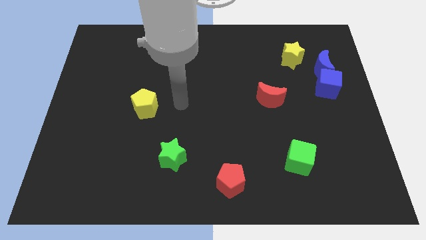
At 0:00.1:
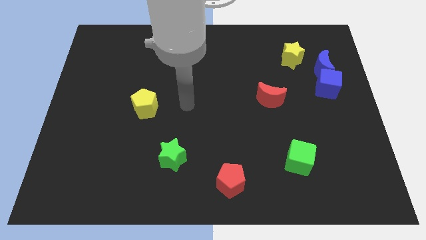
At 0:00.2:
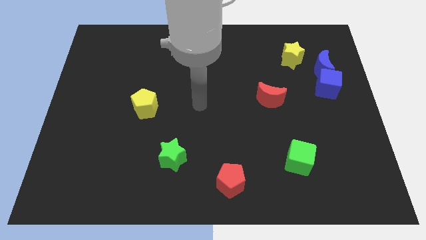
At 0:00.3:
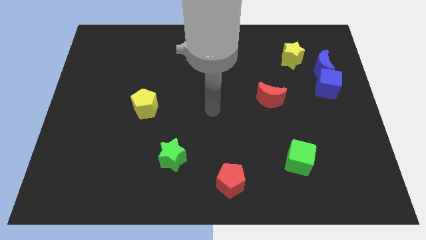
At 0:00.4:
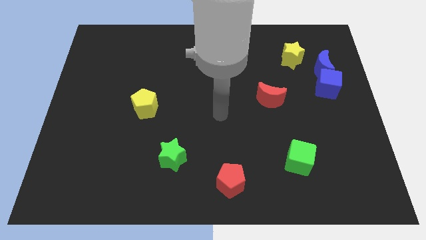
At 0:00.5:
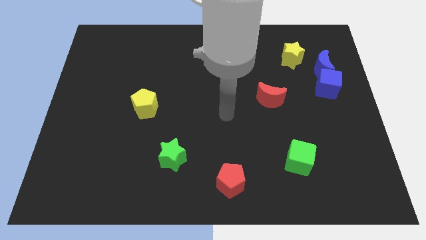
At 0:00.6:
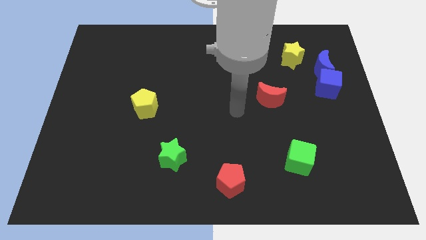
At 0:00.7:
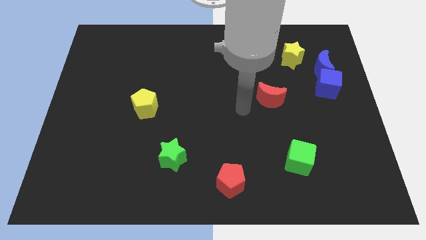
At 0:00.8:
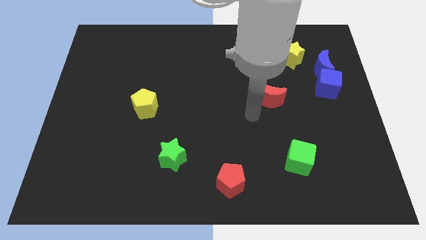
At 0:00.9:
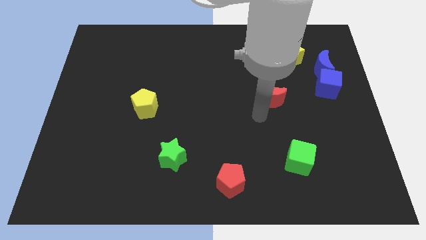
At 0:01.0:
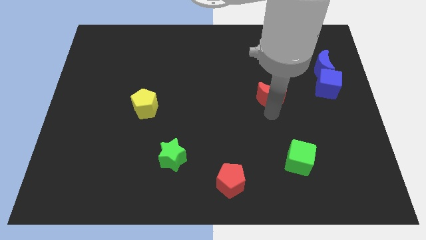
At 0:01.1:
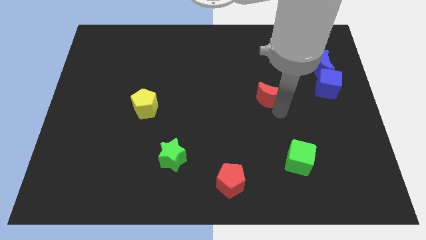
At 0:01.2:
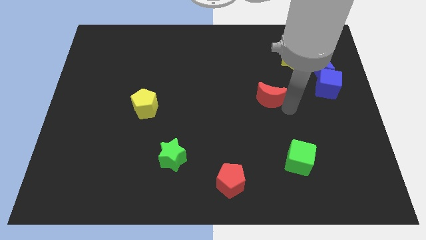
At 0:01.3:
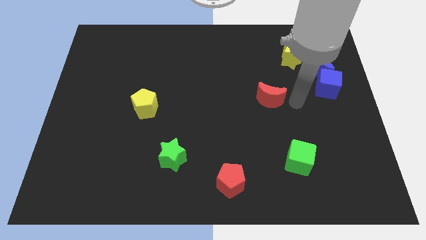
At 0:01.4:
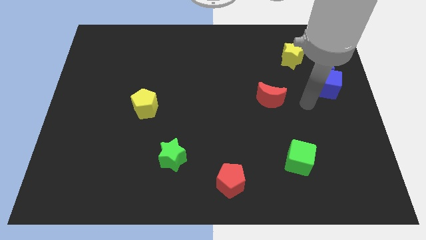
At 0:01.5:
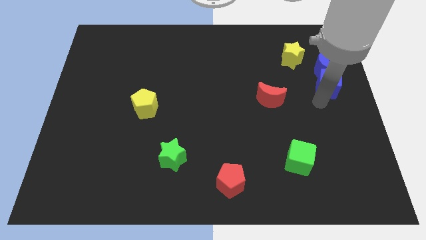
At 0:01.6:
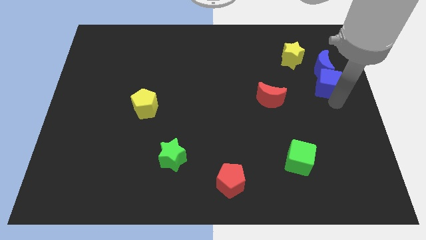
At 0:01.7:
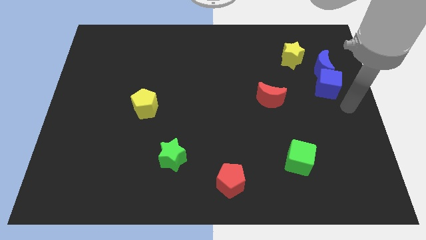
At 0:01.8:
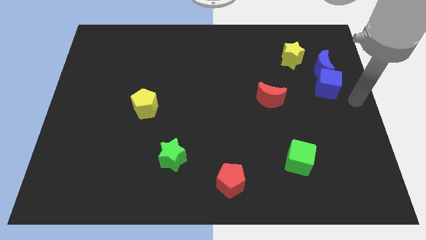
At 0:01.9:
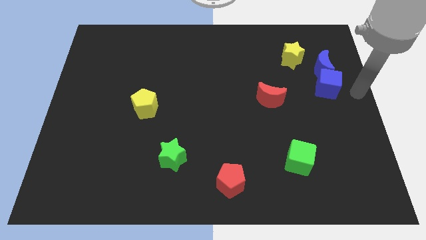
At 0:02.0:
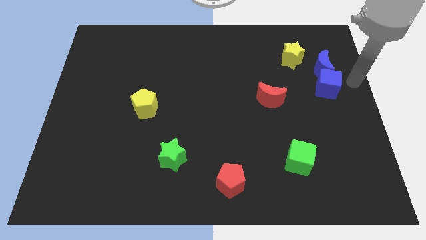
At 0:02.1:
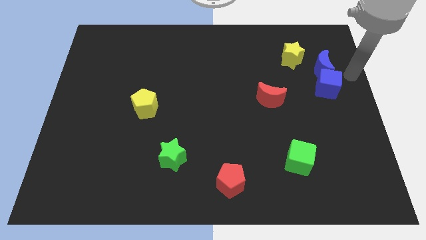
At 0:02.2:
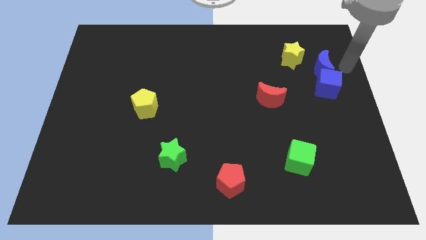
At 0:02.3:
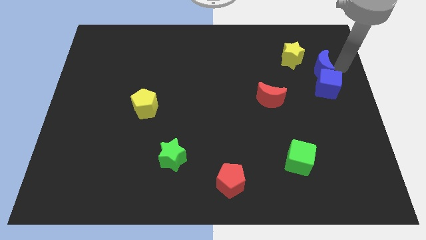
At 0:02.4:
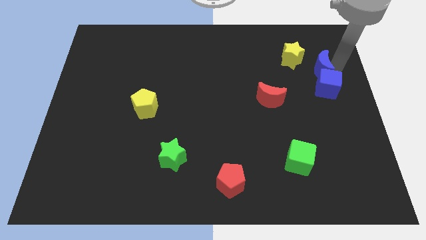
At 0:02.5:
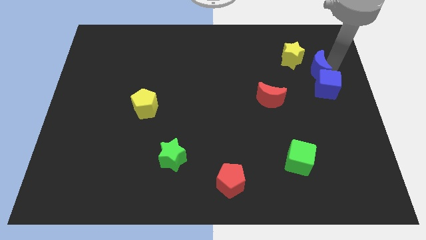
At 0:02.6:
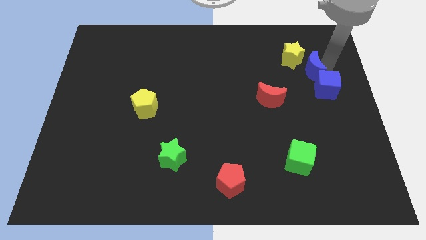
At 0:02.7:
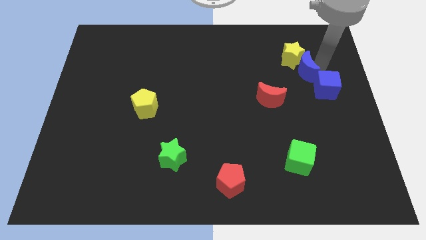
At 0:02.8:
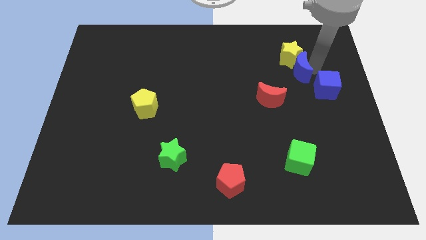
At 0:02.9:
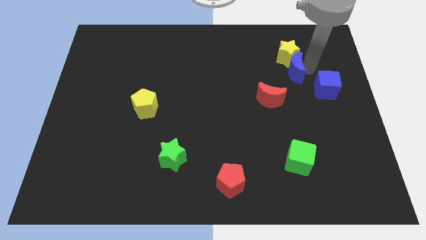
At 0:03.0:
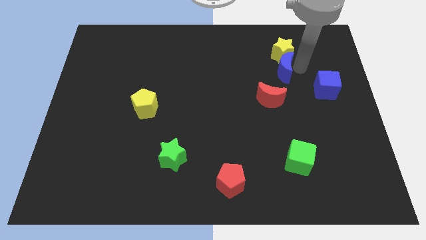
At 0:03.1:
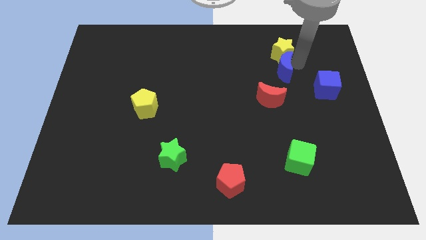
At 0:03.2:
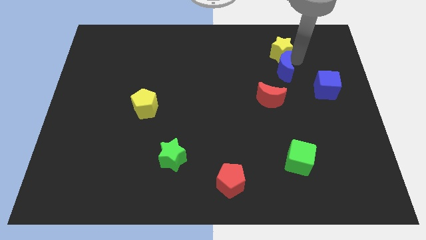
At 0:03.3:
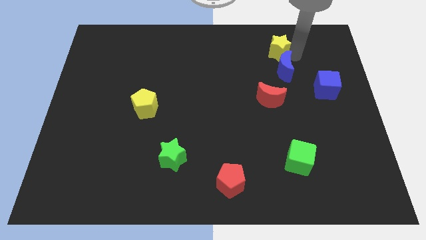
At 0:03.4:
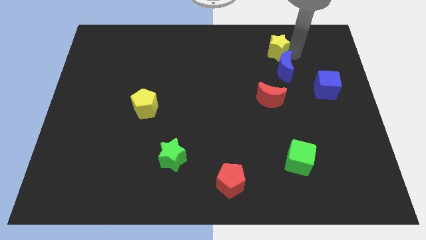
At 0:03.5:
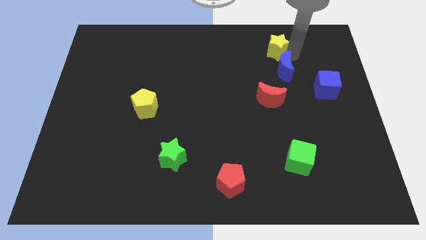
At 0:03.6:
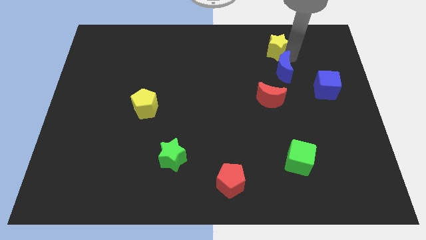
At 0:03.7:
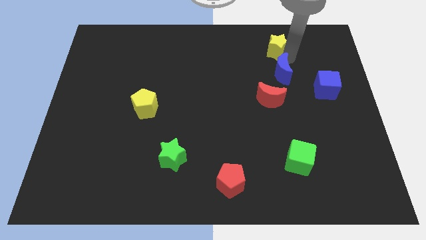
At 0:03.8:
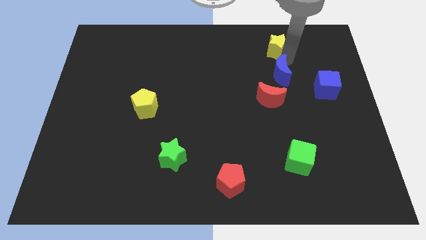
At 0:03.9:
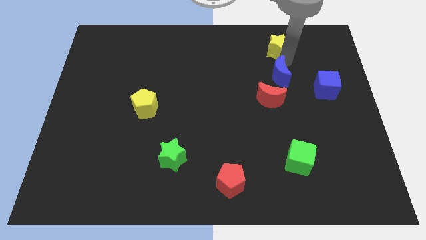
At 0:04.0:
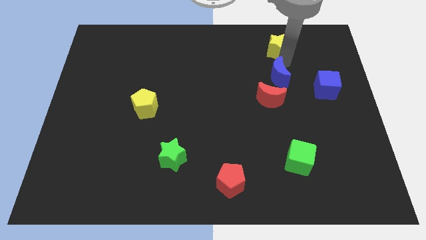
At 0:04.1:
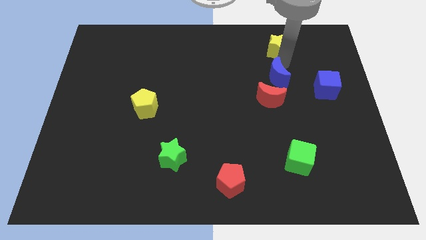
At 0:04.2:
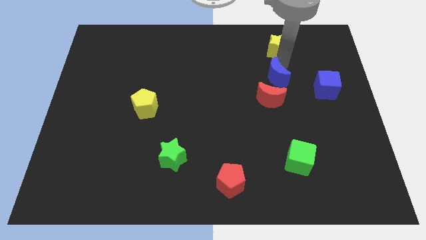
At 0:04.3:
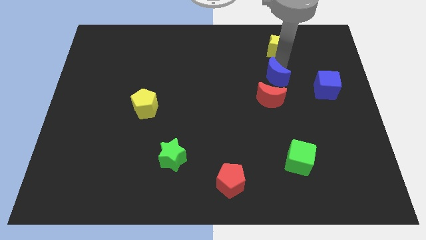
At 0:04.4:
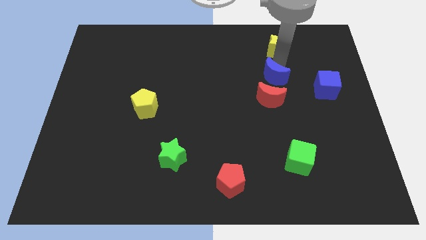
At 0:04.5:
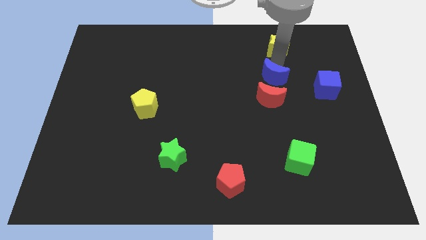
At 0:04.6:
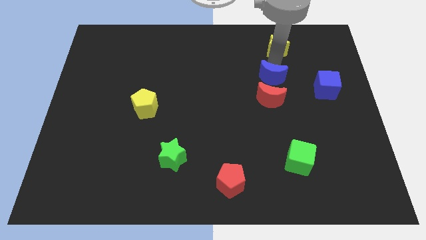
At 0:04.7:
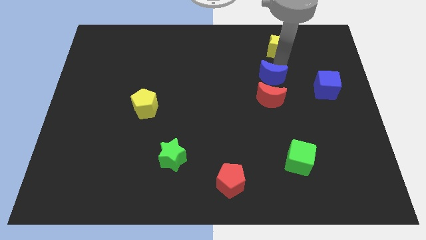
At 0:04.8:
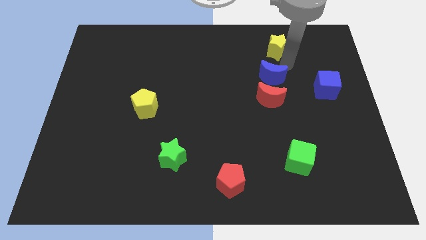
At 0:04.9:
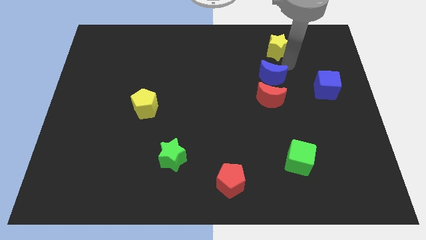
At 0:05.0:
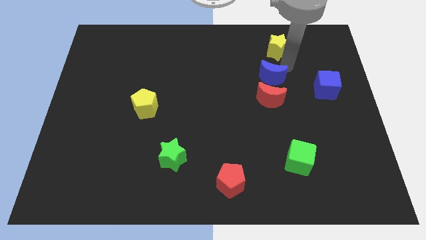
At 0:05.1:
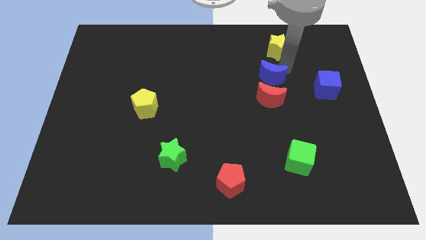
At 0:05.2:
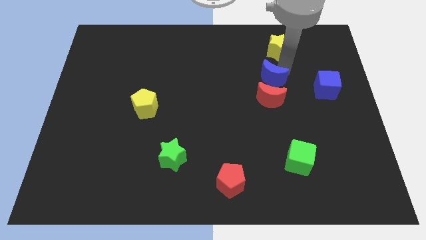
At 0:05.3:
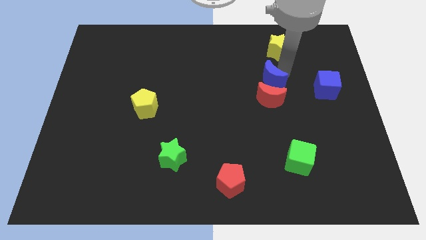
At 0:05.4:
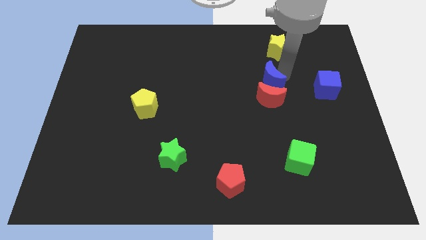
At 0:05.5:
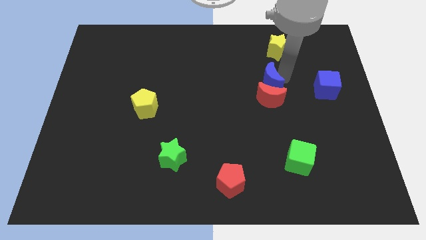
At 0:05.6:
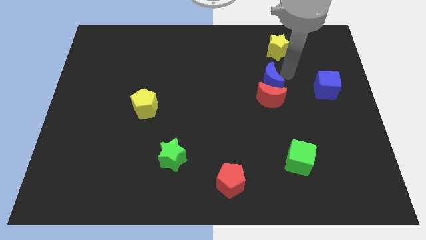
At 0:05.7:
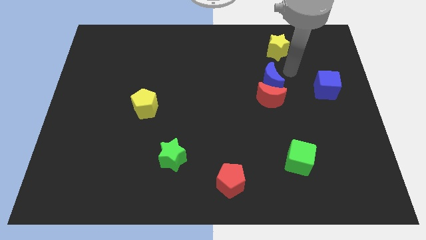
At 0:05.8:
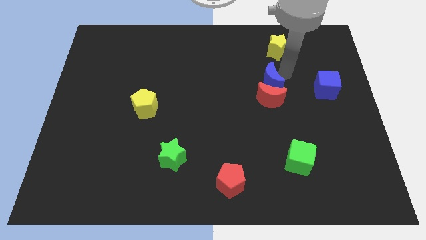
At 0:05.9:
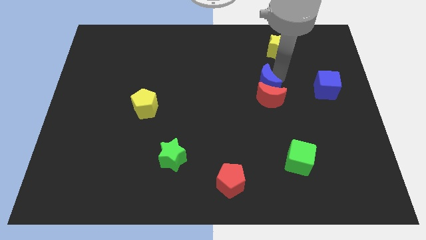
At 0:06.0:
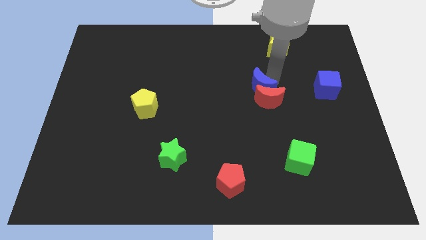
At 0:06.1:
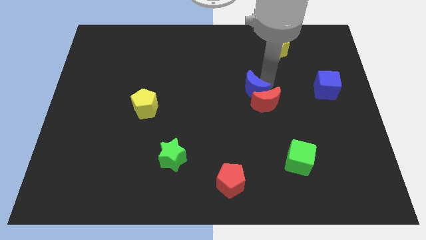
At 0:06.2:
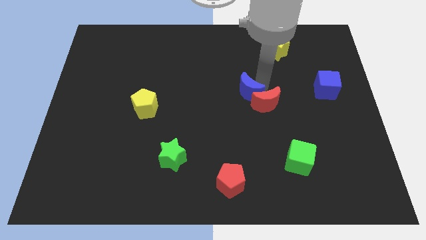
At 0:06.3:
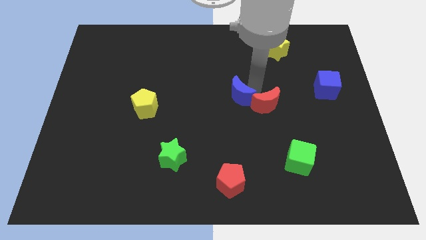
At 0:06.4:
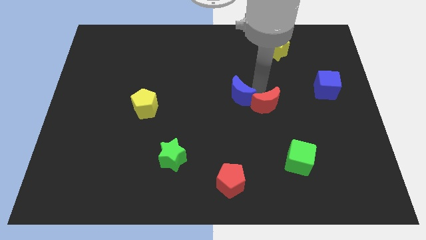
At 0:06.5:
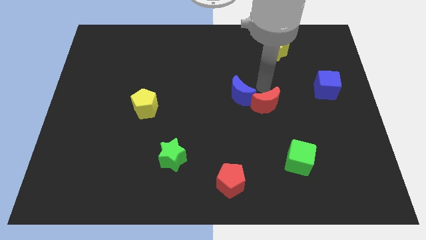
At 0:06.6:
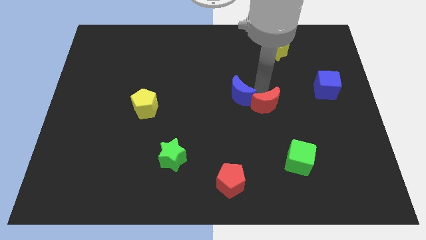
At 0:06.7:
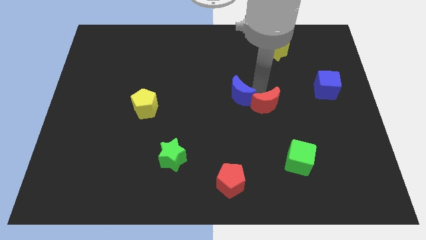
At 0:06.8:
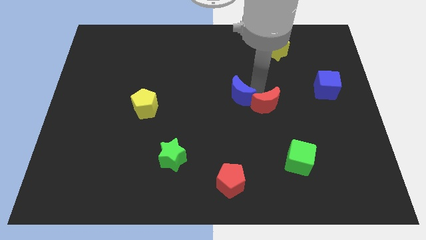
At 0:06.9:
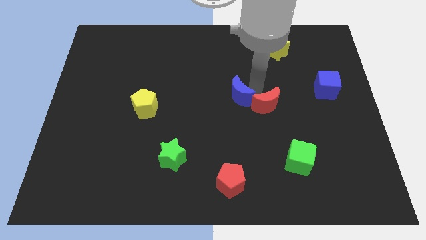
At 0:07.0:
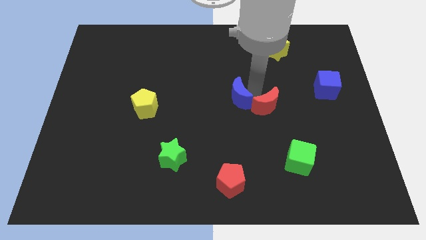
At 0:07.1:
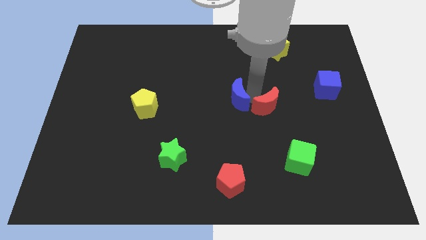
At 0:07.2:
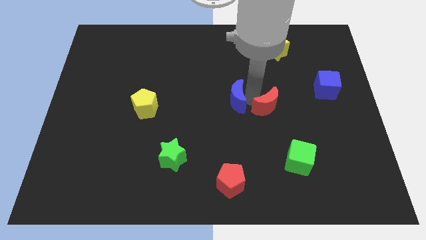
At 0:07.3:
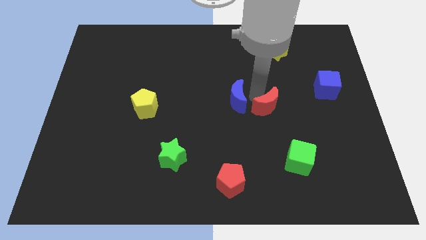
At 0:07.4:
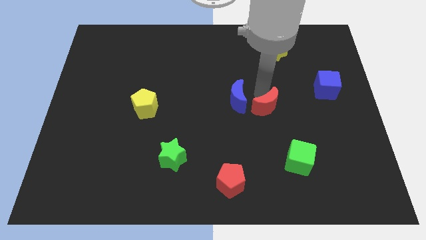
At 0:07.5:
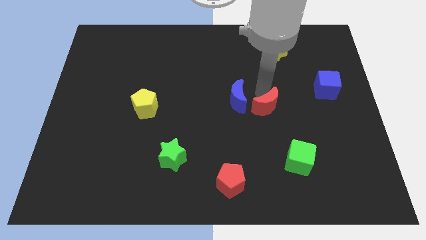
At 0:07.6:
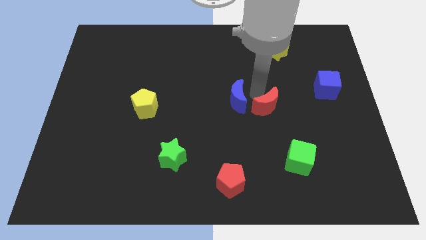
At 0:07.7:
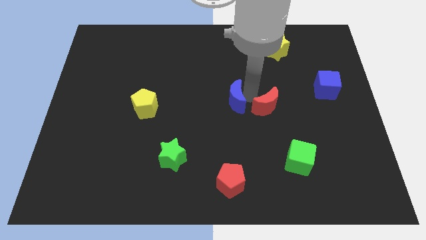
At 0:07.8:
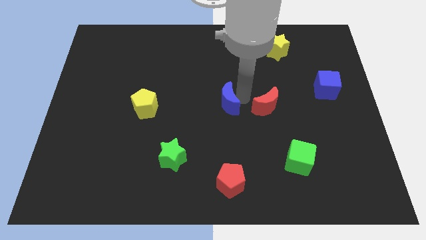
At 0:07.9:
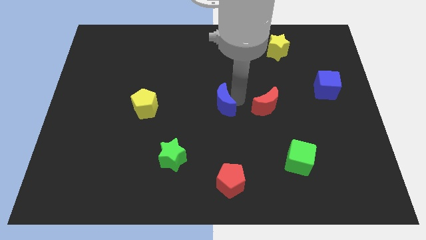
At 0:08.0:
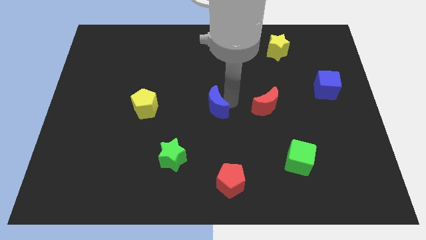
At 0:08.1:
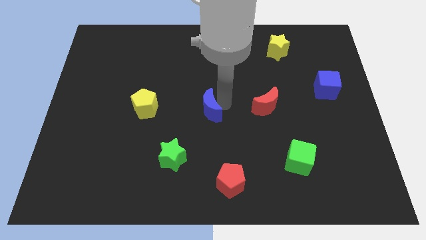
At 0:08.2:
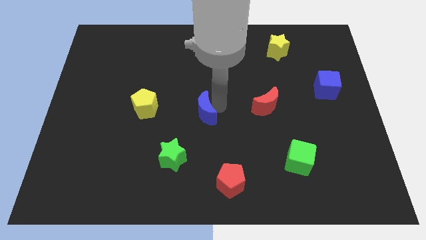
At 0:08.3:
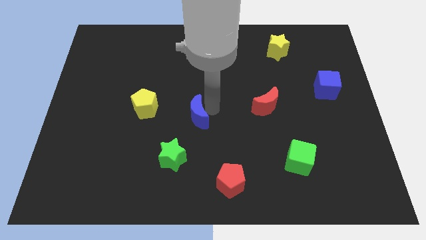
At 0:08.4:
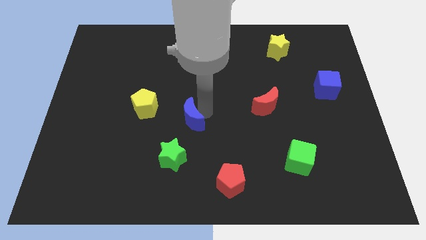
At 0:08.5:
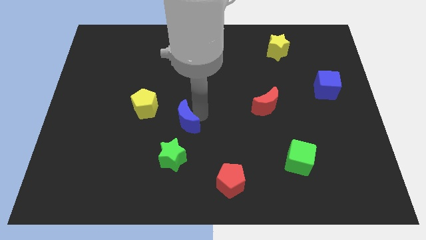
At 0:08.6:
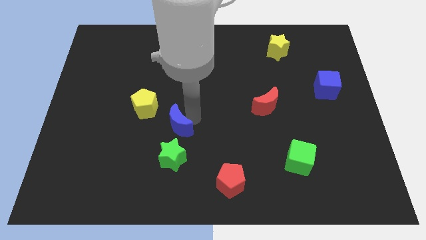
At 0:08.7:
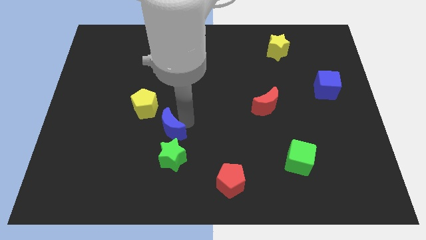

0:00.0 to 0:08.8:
move the blue moon diagonally up and to the left of the green star
